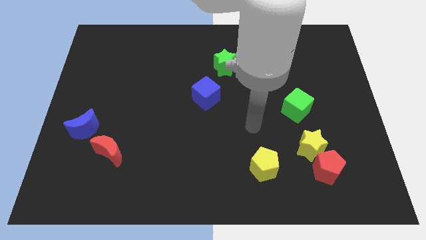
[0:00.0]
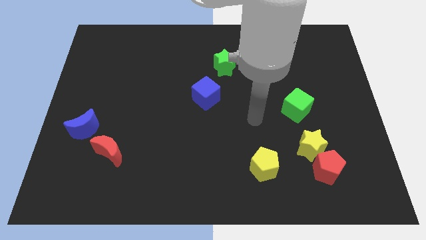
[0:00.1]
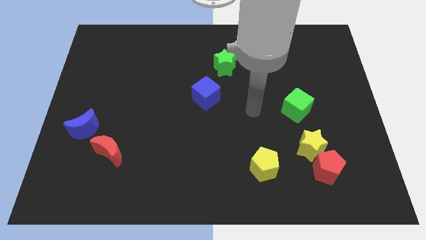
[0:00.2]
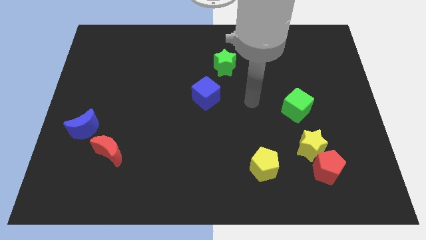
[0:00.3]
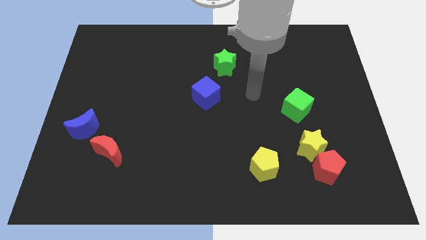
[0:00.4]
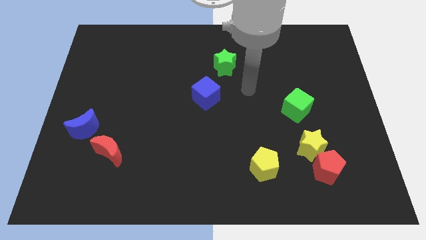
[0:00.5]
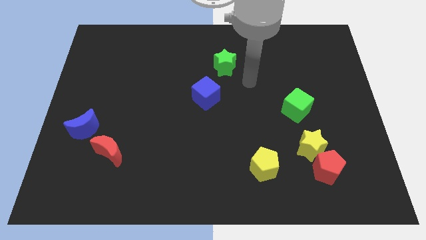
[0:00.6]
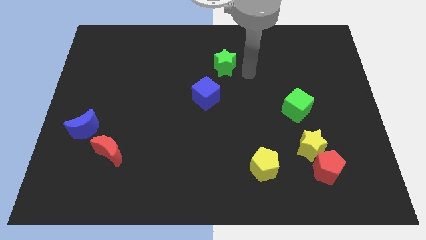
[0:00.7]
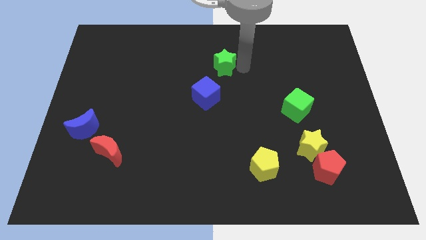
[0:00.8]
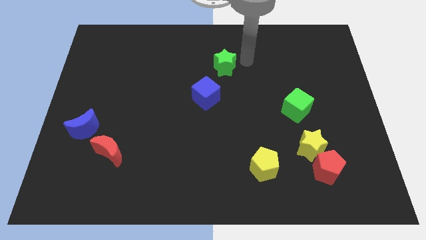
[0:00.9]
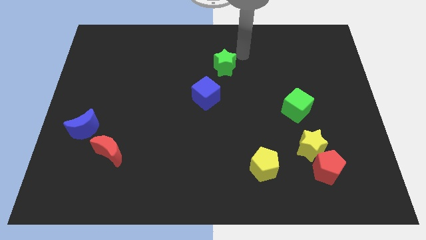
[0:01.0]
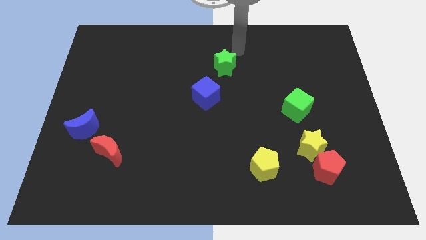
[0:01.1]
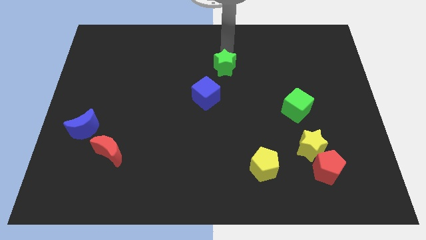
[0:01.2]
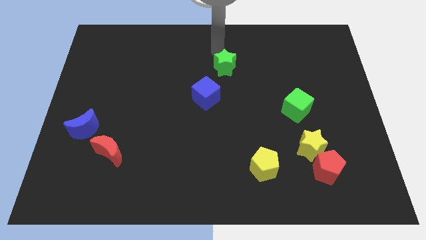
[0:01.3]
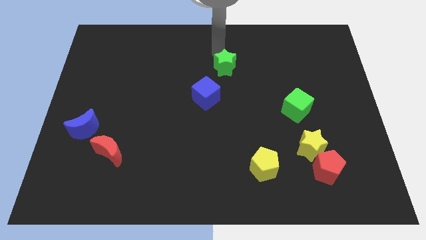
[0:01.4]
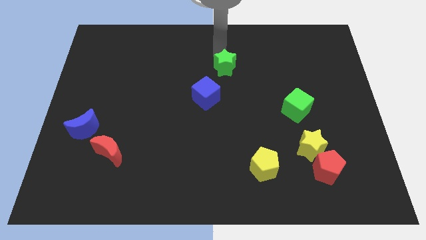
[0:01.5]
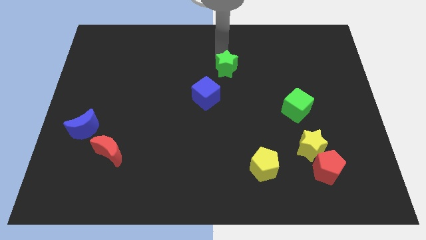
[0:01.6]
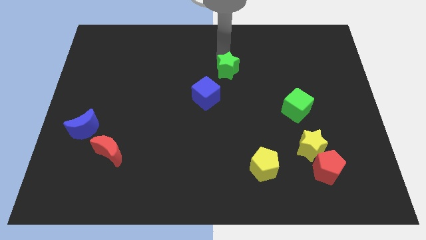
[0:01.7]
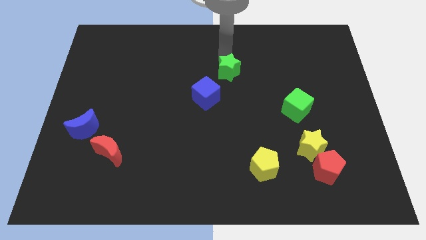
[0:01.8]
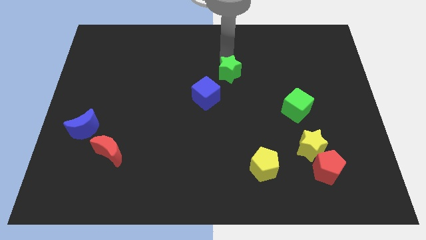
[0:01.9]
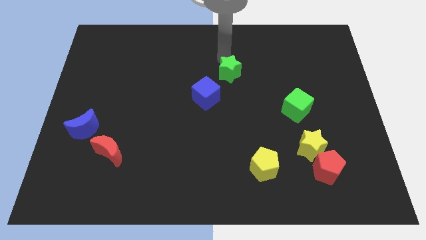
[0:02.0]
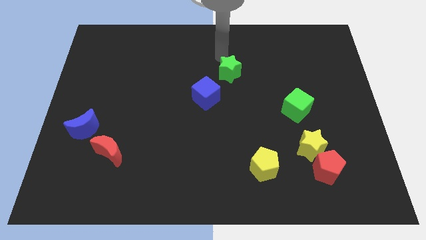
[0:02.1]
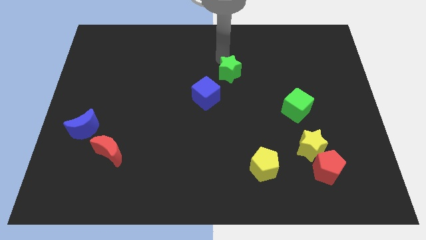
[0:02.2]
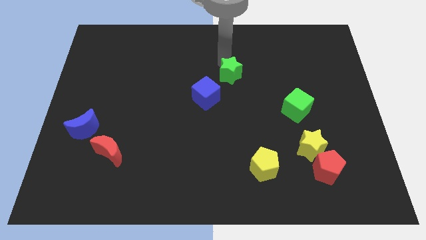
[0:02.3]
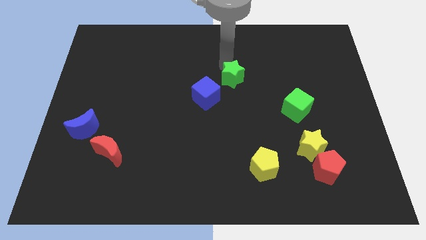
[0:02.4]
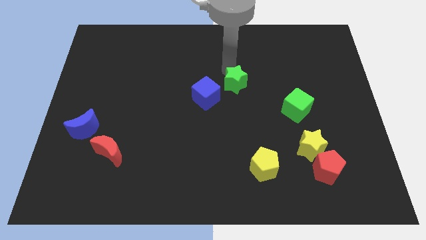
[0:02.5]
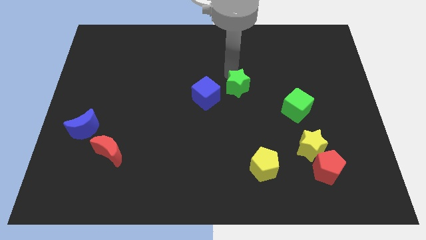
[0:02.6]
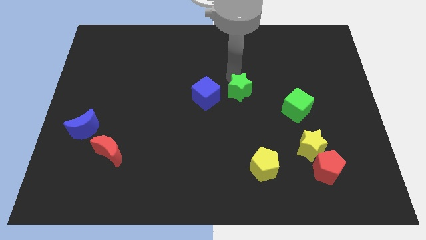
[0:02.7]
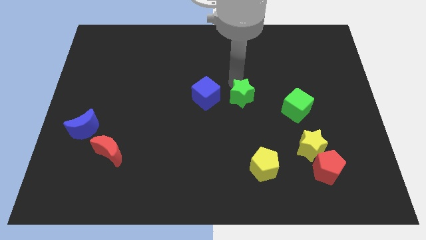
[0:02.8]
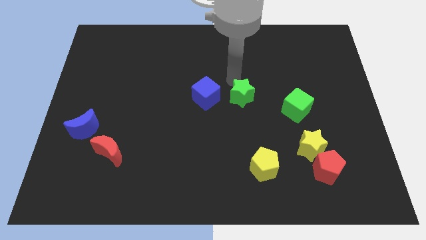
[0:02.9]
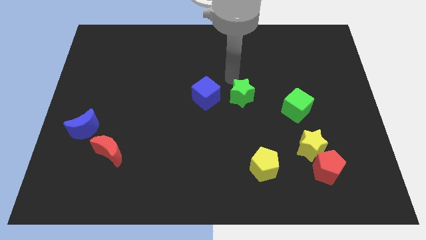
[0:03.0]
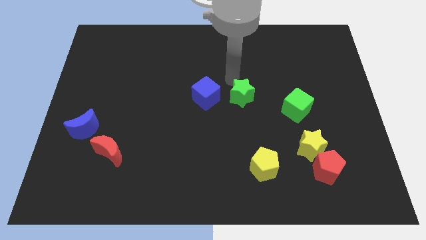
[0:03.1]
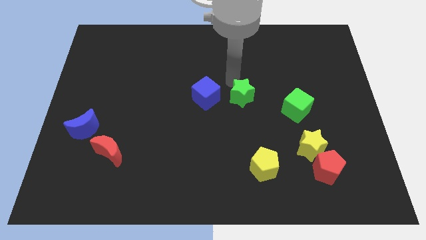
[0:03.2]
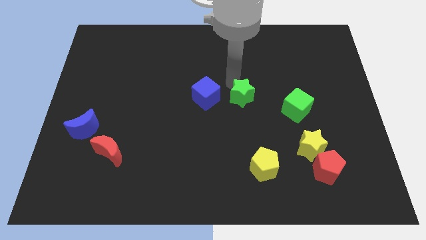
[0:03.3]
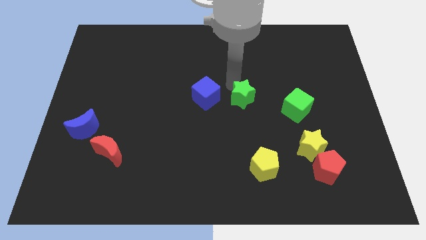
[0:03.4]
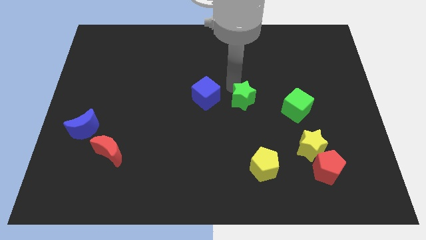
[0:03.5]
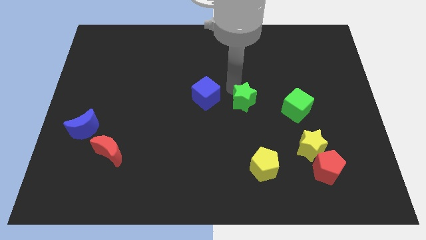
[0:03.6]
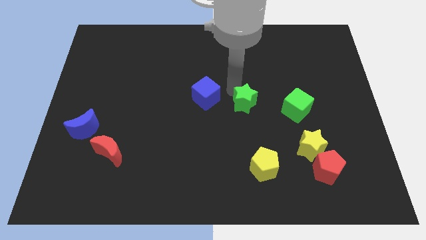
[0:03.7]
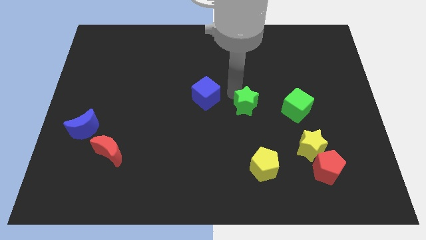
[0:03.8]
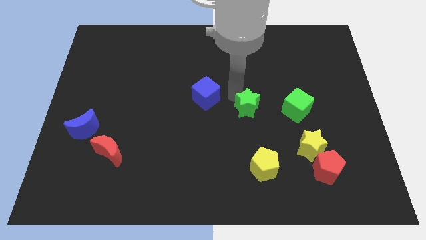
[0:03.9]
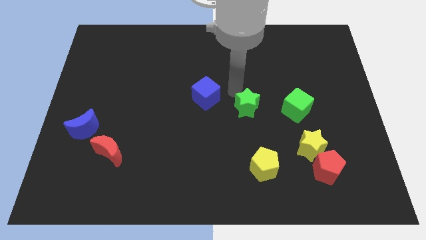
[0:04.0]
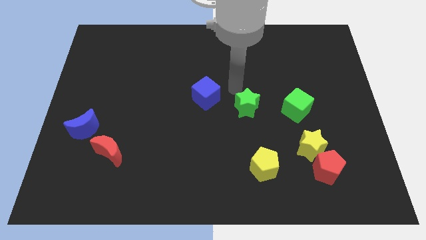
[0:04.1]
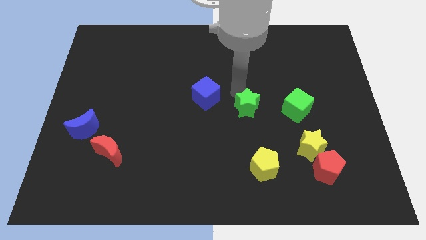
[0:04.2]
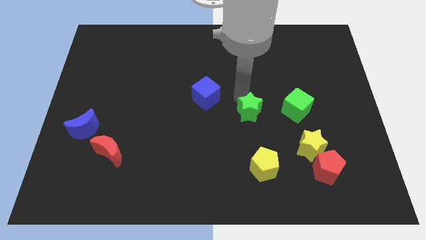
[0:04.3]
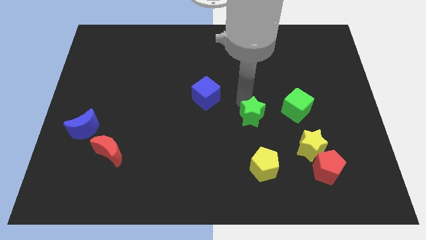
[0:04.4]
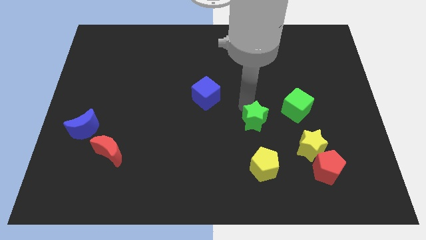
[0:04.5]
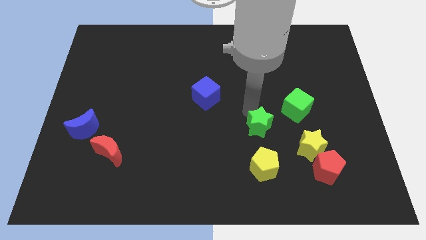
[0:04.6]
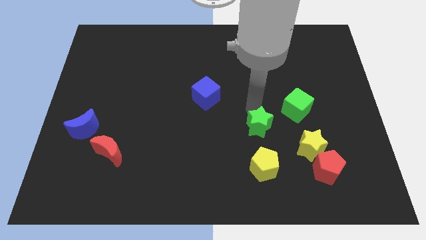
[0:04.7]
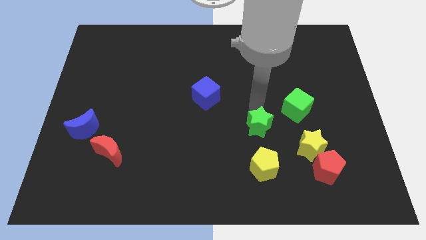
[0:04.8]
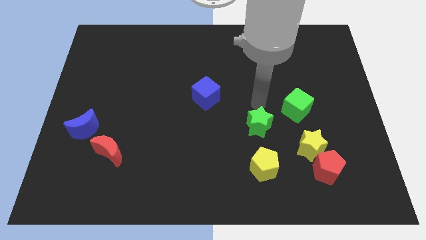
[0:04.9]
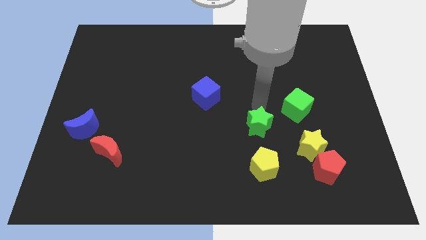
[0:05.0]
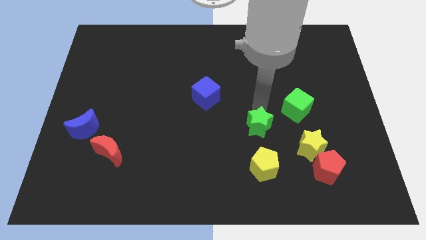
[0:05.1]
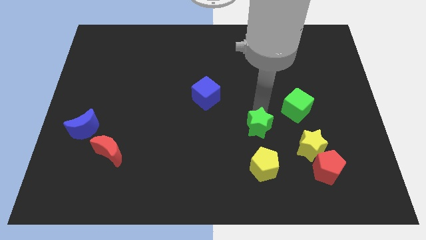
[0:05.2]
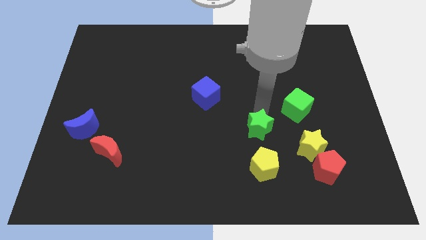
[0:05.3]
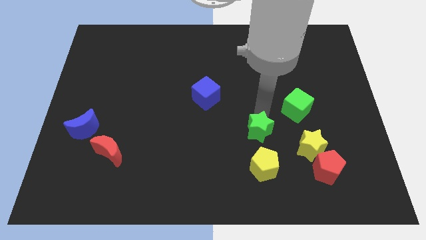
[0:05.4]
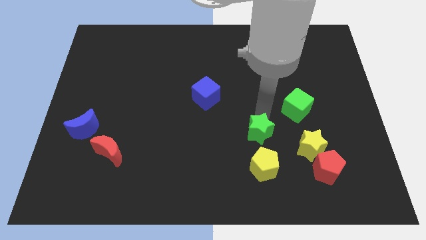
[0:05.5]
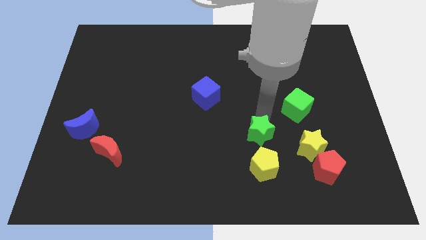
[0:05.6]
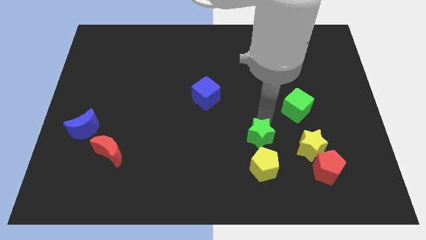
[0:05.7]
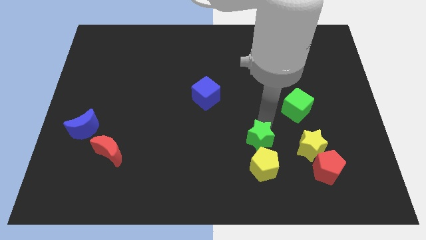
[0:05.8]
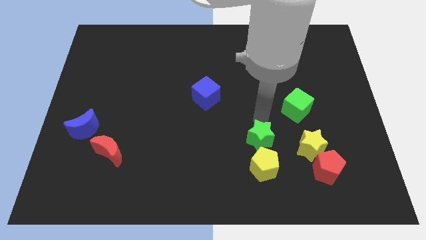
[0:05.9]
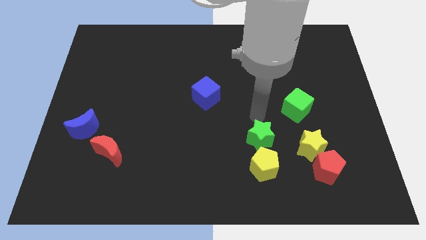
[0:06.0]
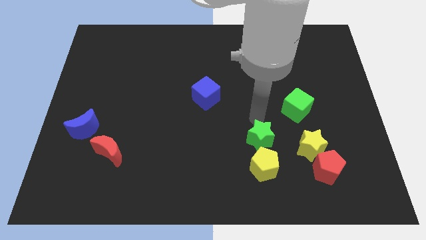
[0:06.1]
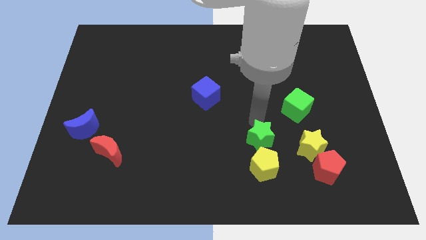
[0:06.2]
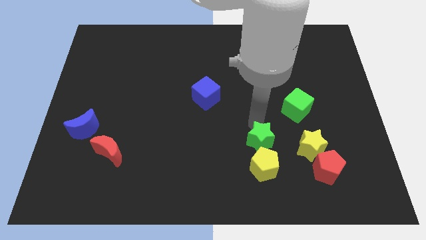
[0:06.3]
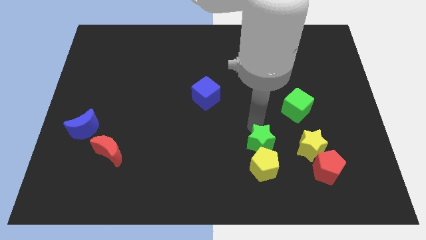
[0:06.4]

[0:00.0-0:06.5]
push the green star to the yellow pentagon
